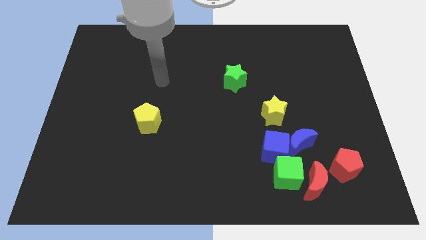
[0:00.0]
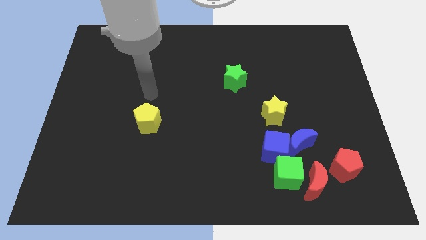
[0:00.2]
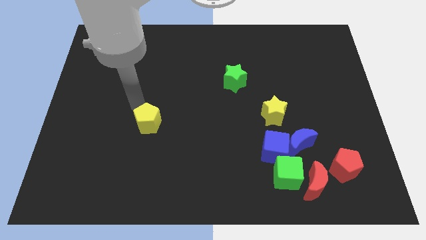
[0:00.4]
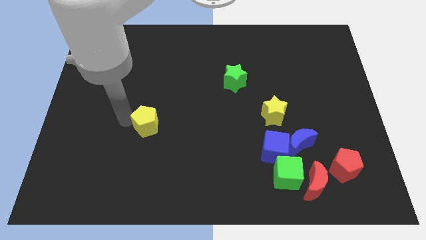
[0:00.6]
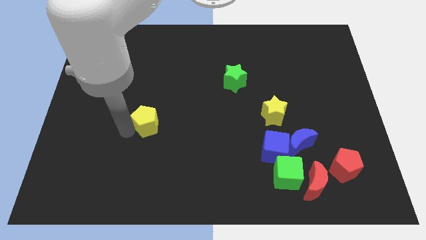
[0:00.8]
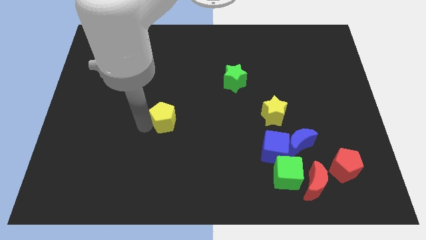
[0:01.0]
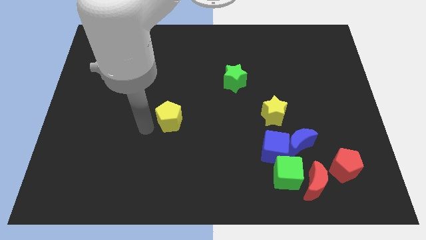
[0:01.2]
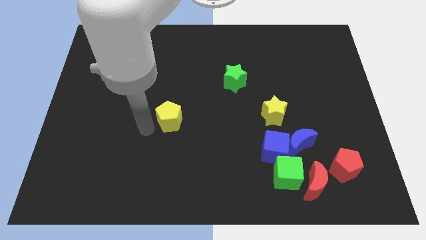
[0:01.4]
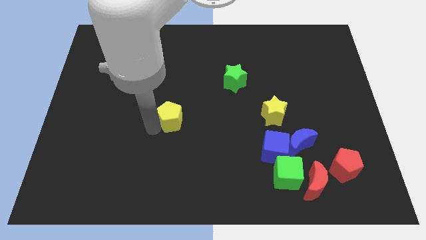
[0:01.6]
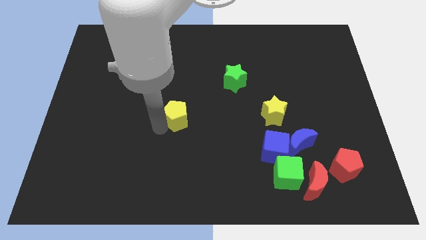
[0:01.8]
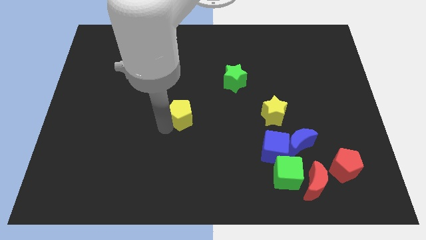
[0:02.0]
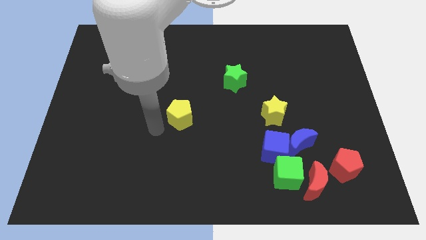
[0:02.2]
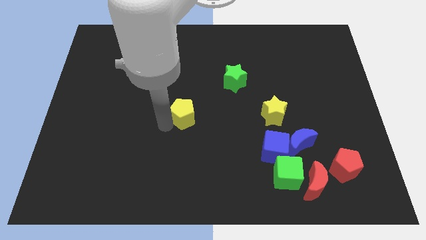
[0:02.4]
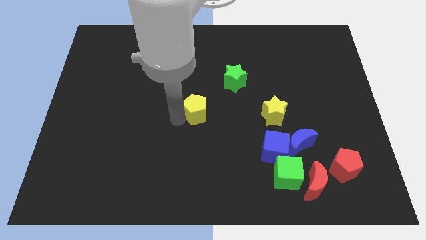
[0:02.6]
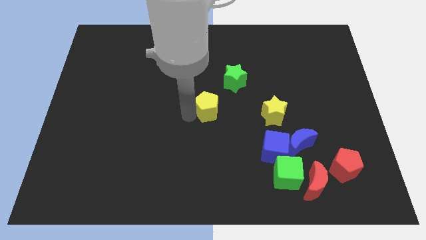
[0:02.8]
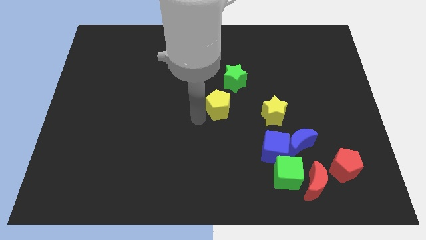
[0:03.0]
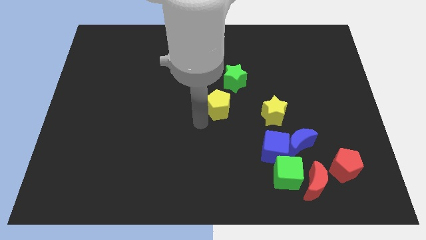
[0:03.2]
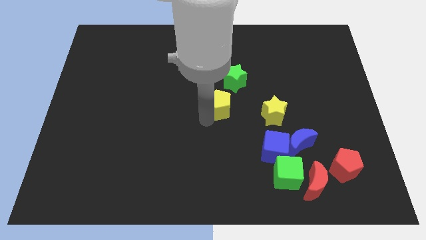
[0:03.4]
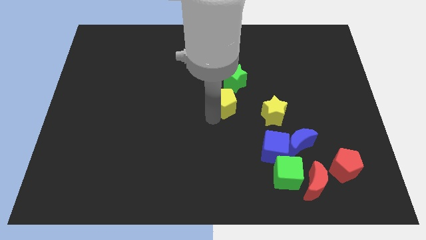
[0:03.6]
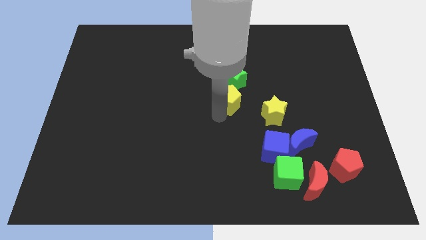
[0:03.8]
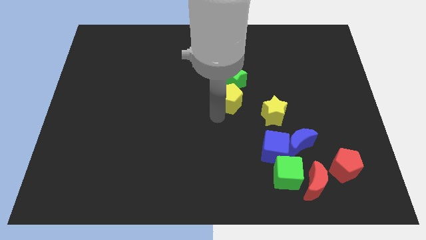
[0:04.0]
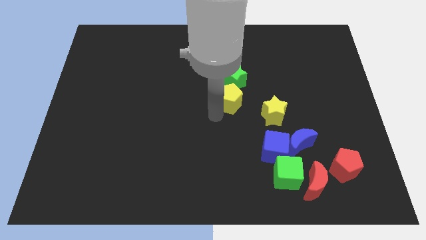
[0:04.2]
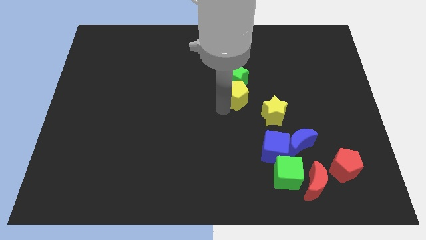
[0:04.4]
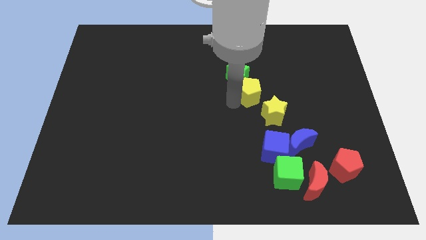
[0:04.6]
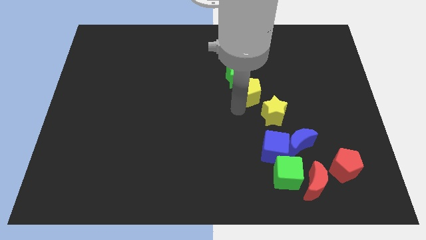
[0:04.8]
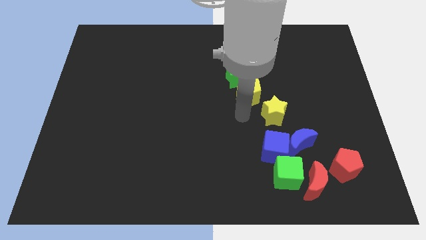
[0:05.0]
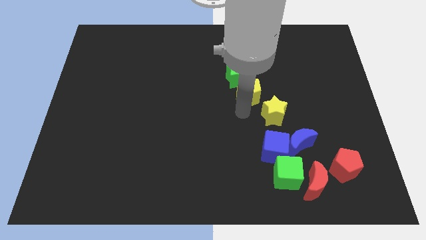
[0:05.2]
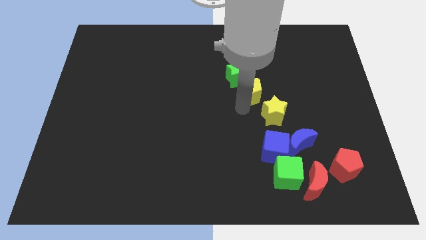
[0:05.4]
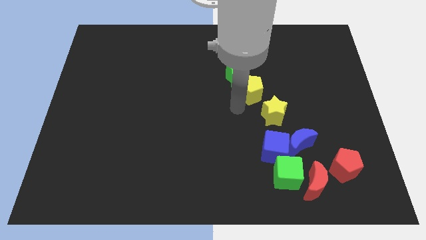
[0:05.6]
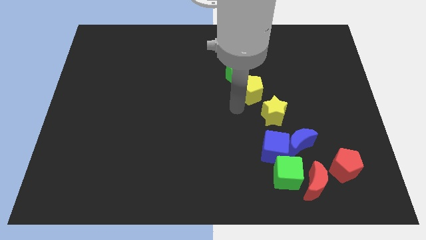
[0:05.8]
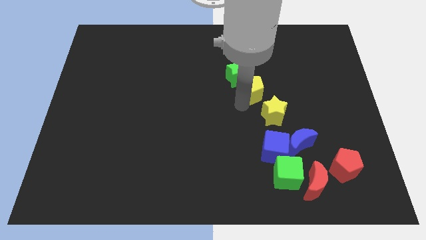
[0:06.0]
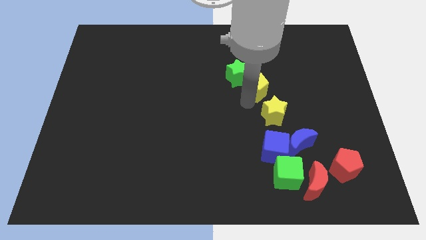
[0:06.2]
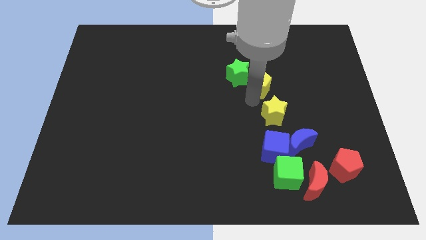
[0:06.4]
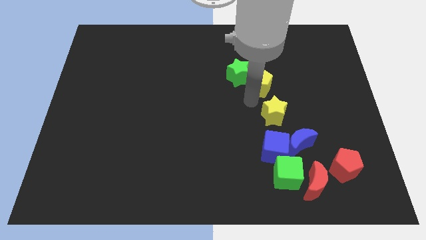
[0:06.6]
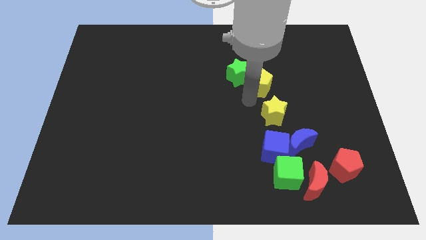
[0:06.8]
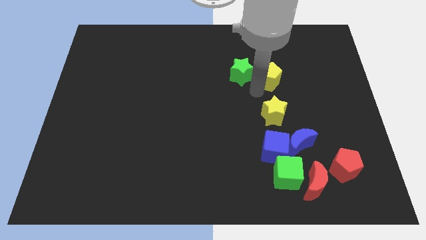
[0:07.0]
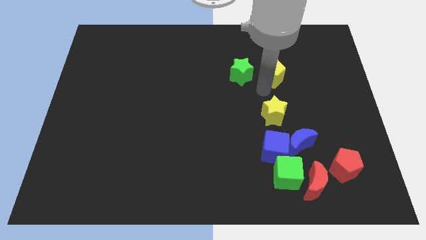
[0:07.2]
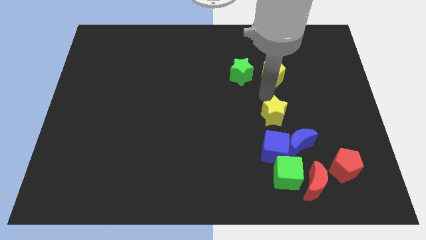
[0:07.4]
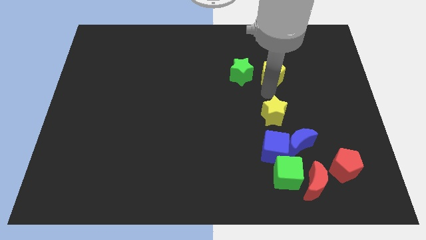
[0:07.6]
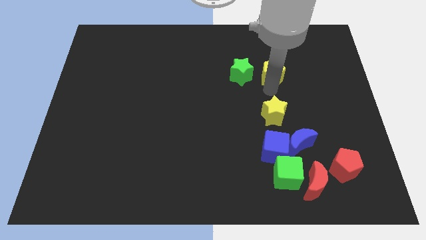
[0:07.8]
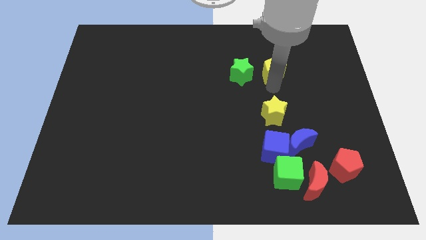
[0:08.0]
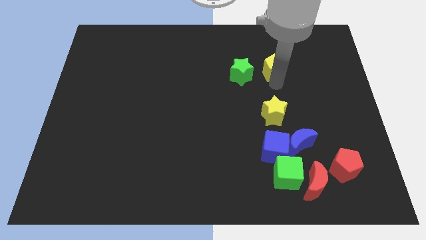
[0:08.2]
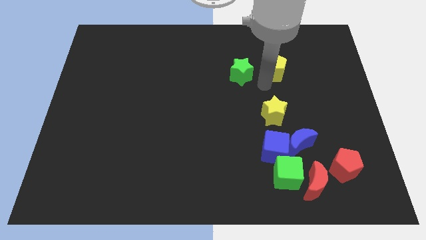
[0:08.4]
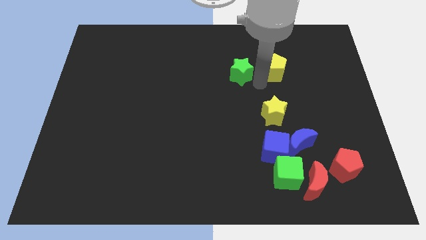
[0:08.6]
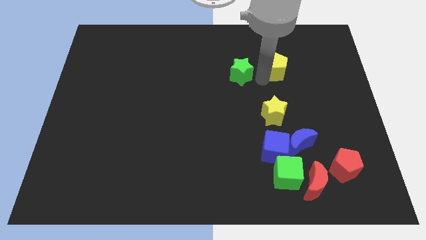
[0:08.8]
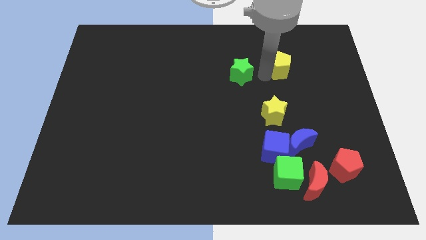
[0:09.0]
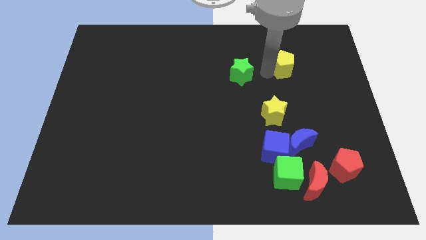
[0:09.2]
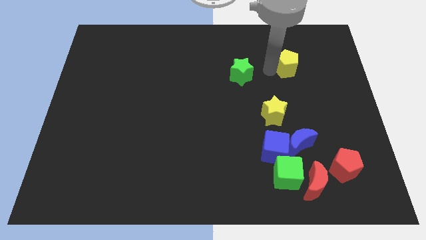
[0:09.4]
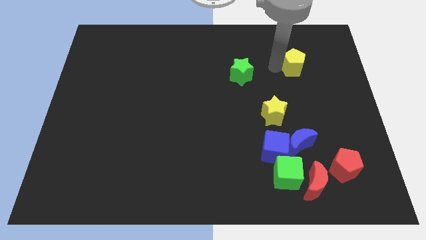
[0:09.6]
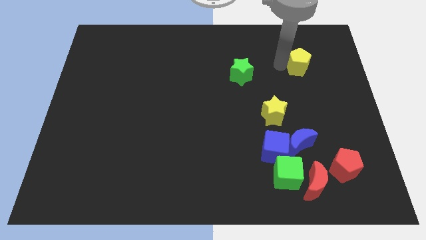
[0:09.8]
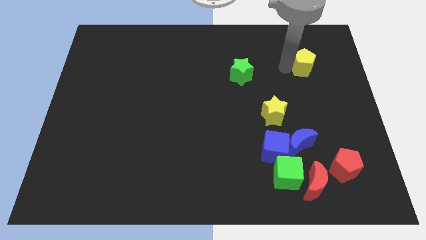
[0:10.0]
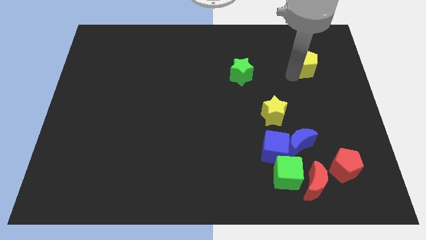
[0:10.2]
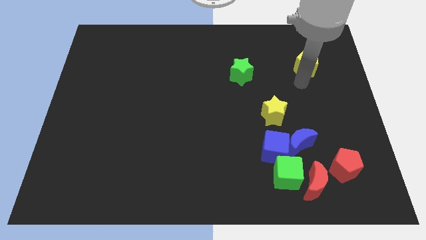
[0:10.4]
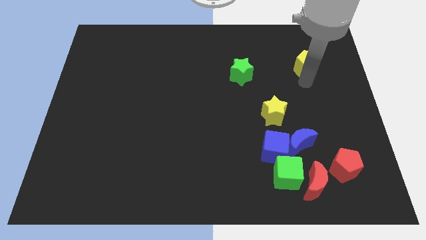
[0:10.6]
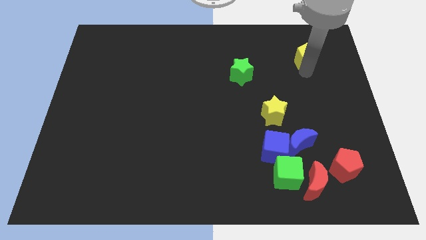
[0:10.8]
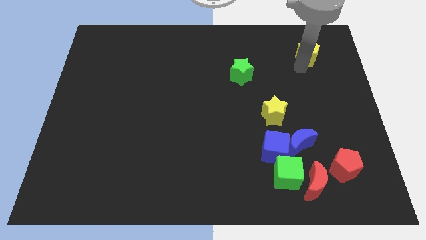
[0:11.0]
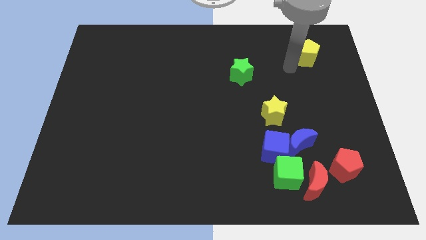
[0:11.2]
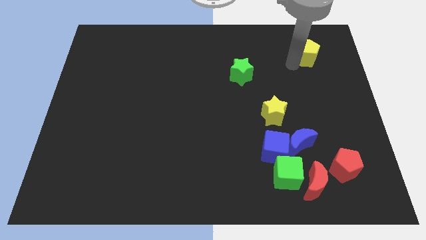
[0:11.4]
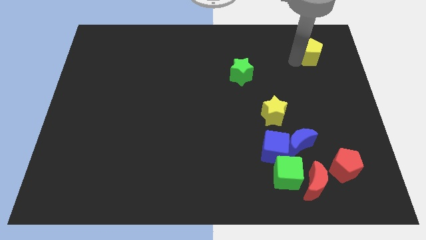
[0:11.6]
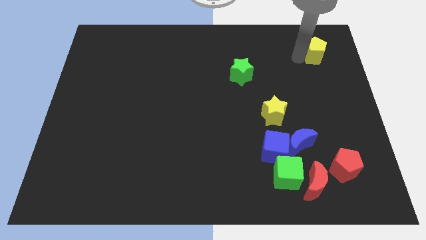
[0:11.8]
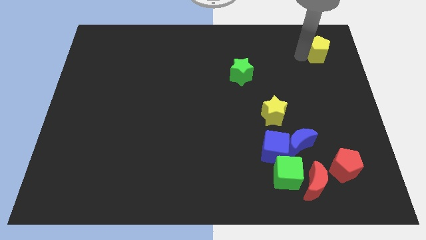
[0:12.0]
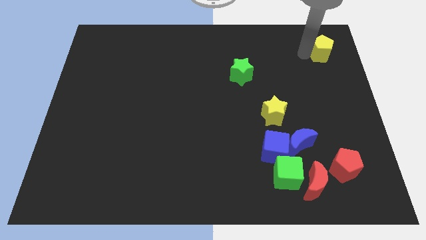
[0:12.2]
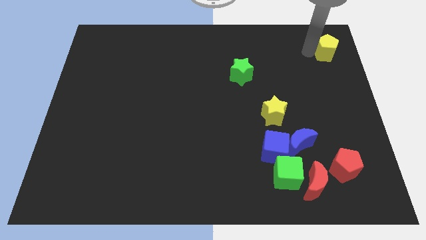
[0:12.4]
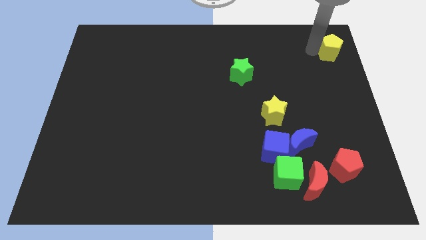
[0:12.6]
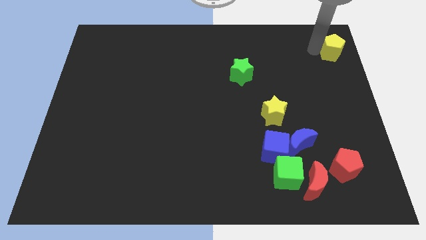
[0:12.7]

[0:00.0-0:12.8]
put the yellow pentagon to the top right corner
